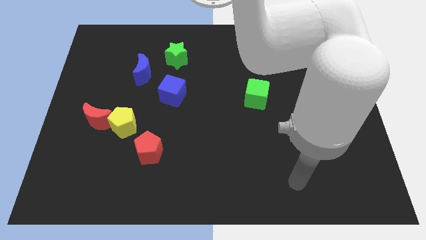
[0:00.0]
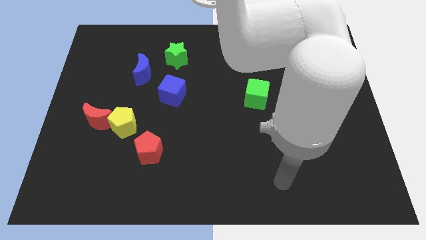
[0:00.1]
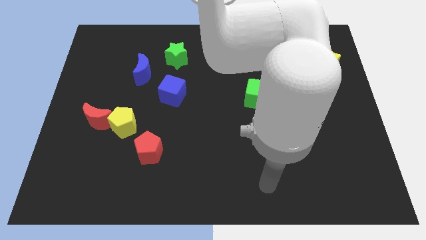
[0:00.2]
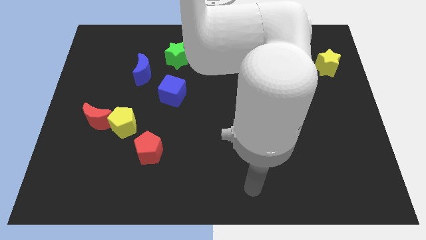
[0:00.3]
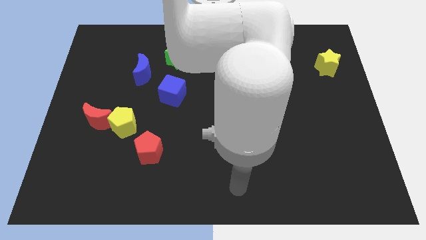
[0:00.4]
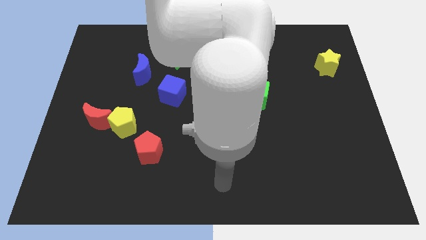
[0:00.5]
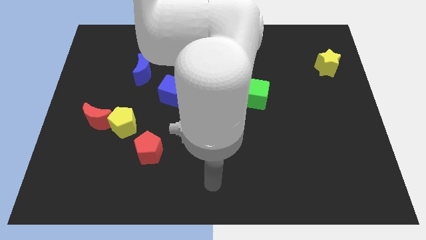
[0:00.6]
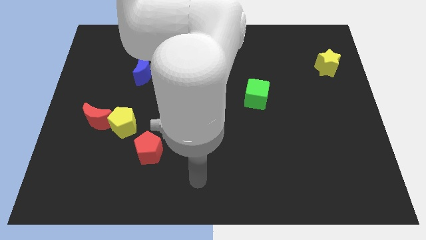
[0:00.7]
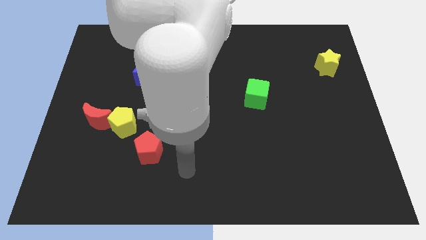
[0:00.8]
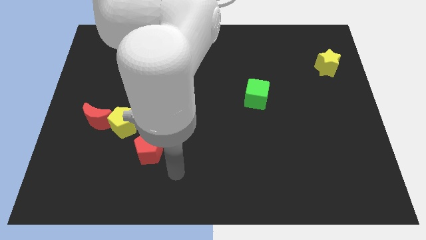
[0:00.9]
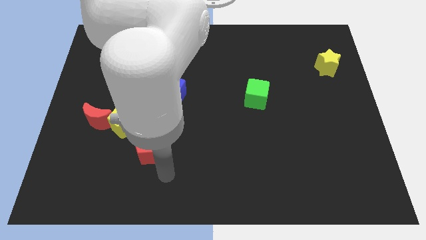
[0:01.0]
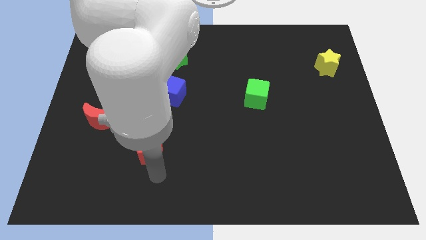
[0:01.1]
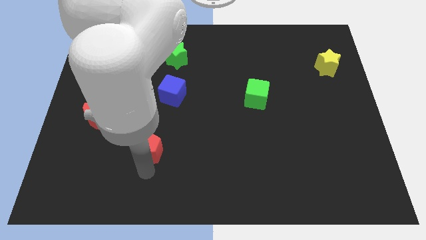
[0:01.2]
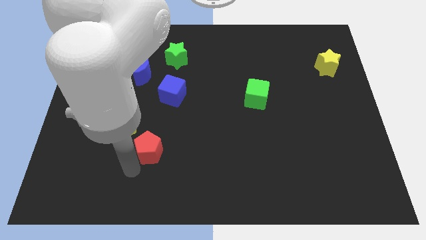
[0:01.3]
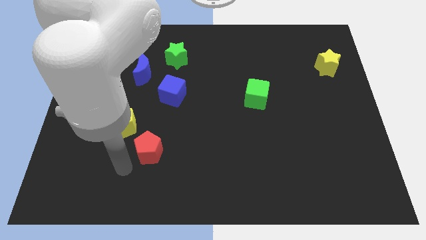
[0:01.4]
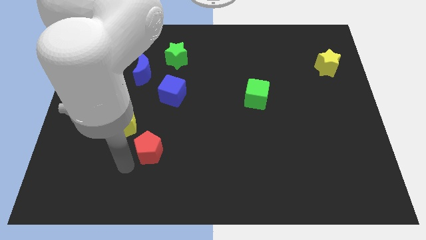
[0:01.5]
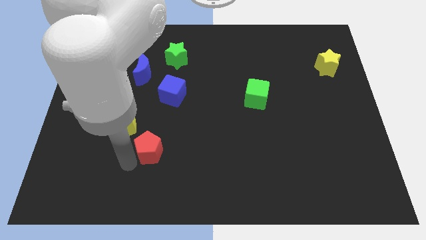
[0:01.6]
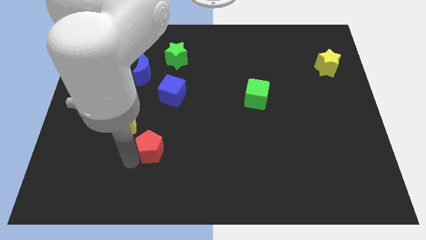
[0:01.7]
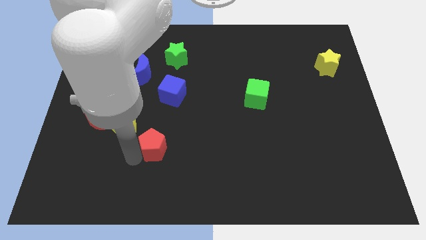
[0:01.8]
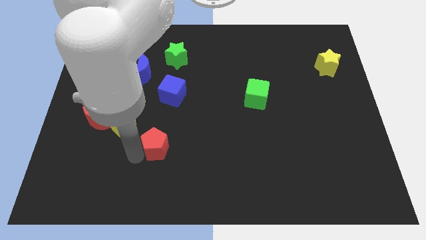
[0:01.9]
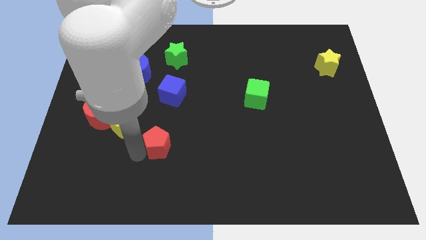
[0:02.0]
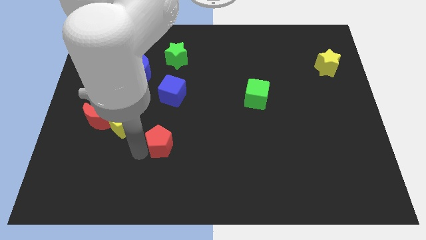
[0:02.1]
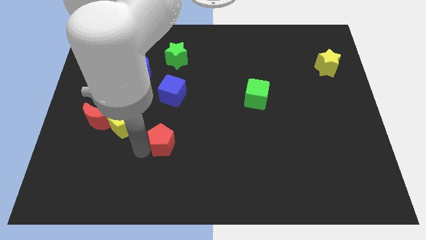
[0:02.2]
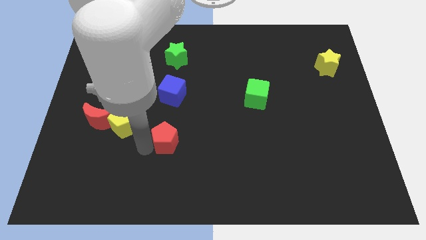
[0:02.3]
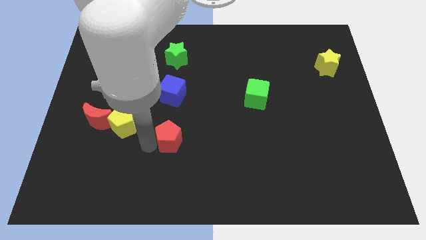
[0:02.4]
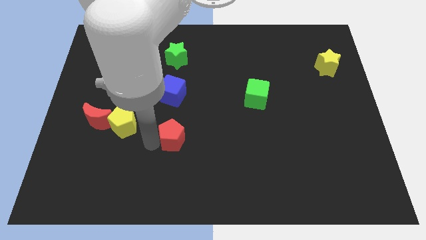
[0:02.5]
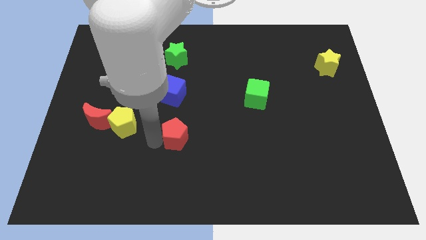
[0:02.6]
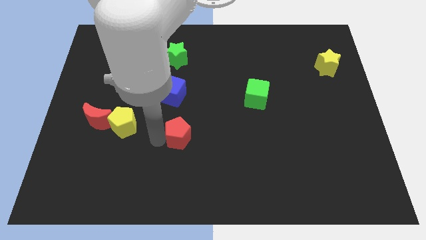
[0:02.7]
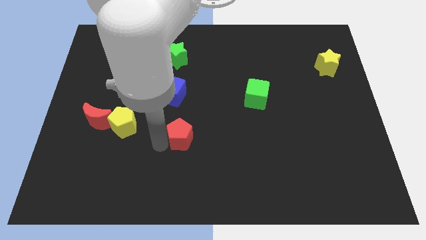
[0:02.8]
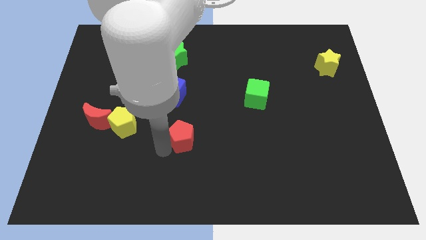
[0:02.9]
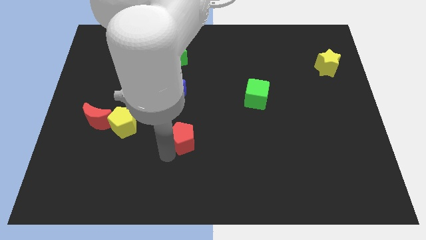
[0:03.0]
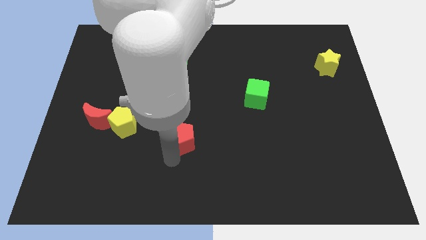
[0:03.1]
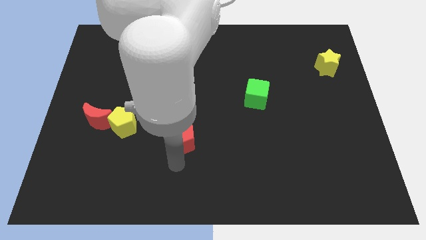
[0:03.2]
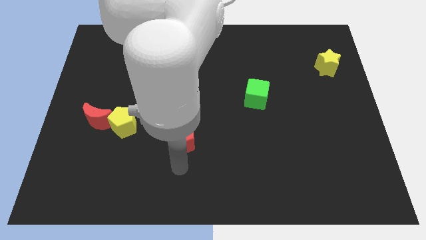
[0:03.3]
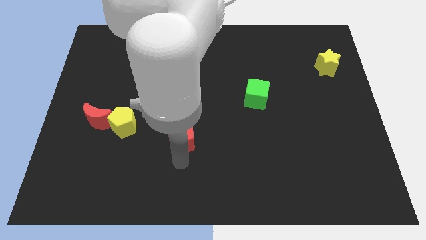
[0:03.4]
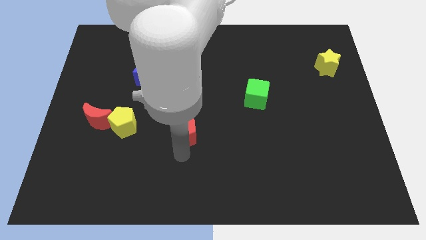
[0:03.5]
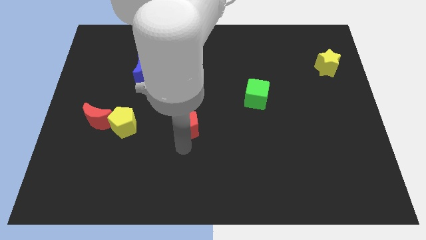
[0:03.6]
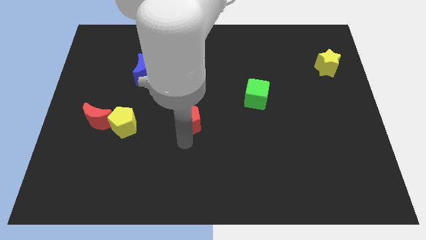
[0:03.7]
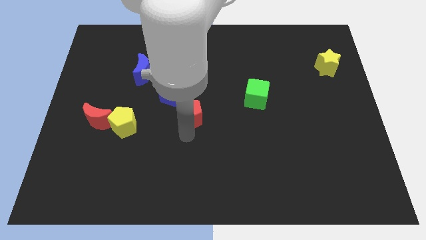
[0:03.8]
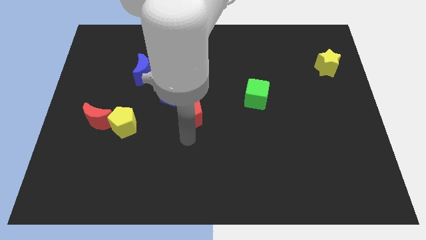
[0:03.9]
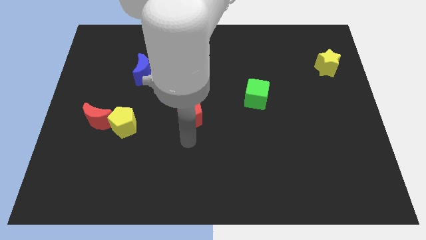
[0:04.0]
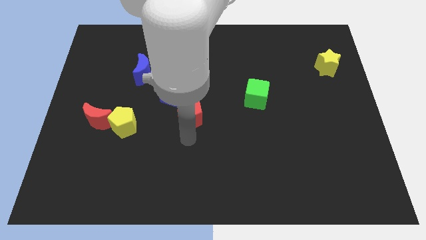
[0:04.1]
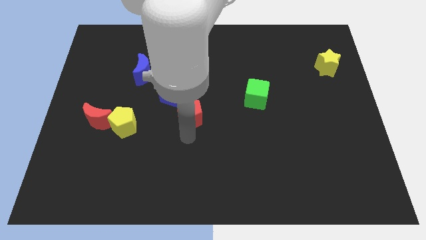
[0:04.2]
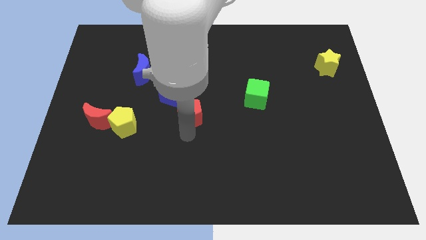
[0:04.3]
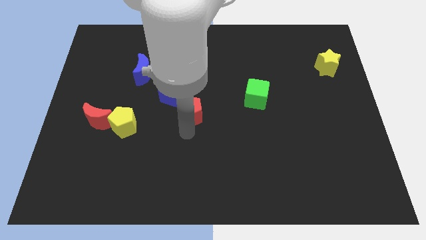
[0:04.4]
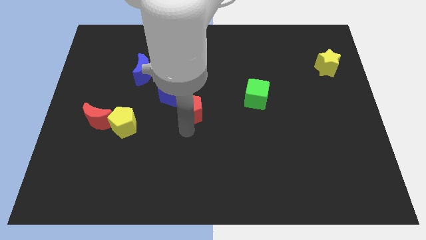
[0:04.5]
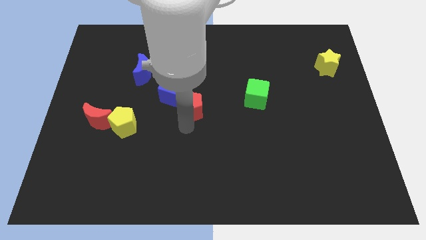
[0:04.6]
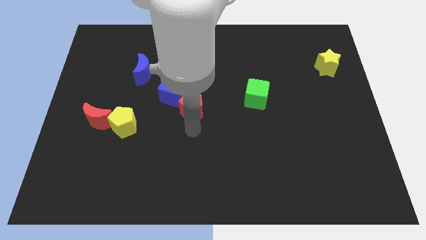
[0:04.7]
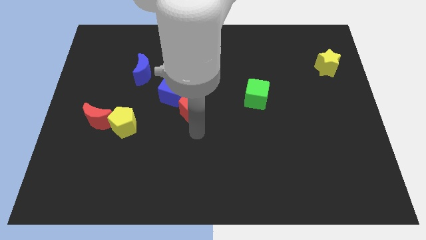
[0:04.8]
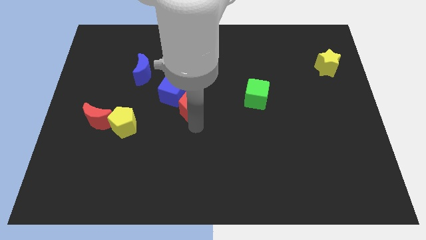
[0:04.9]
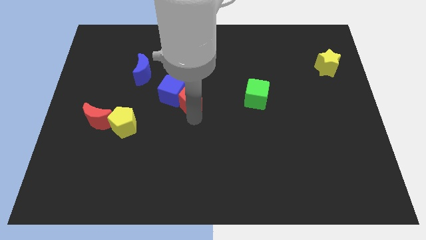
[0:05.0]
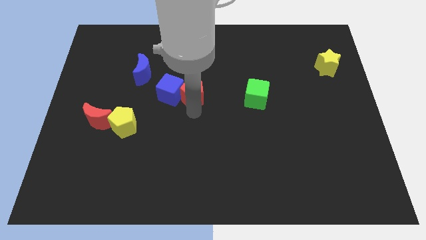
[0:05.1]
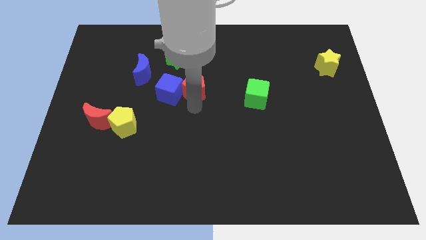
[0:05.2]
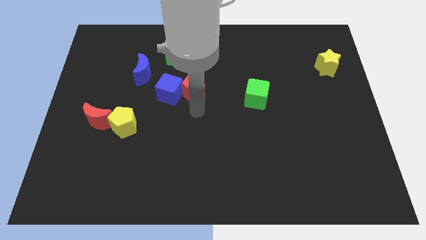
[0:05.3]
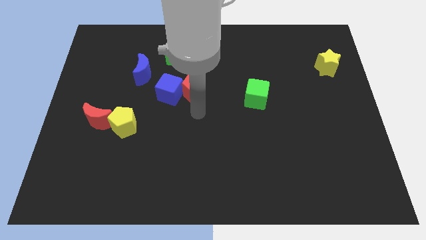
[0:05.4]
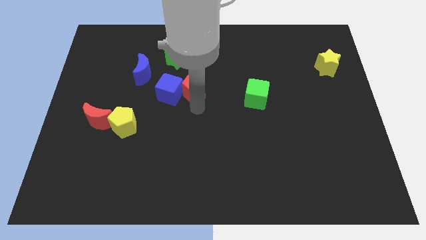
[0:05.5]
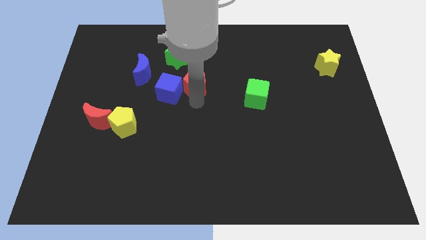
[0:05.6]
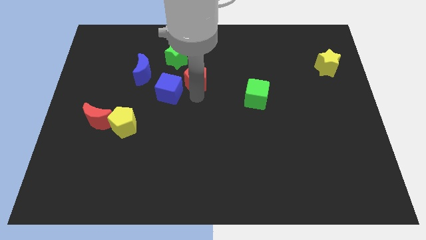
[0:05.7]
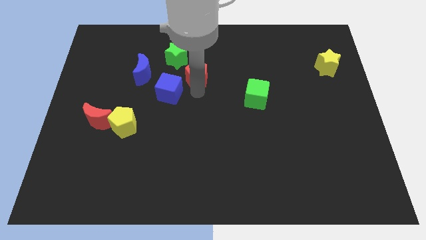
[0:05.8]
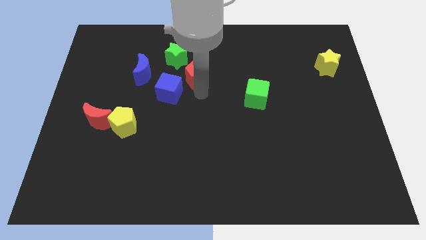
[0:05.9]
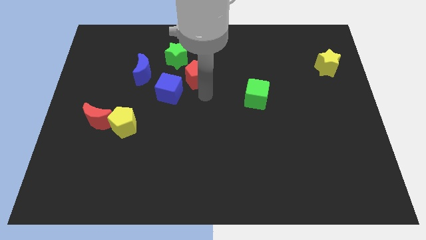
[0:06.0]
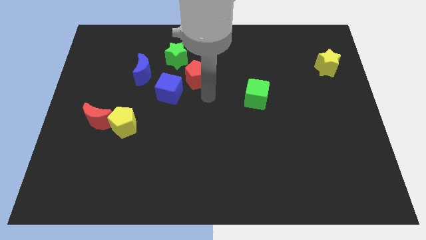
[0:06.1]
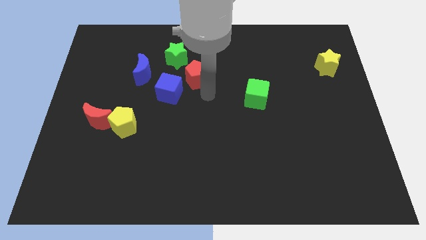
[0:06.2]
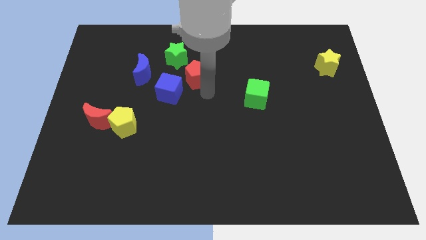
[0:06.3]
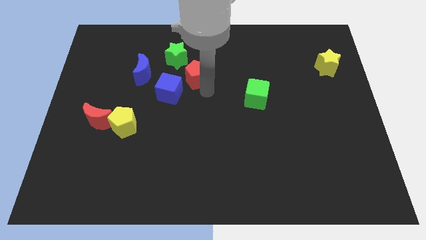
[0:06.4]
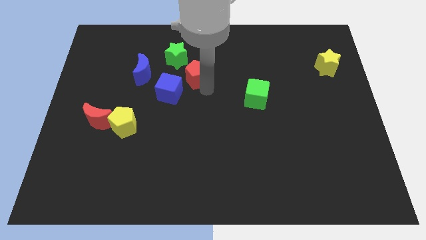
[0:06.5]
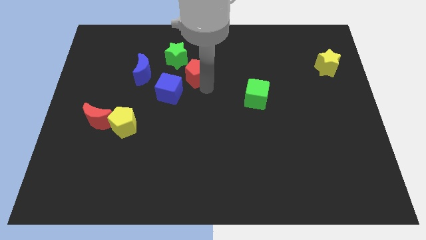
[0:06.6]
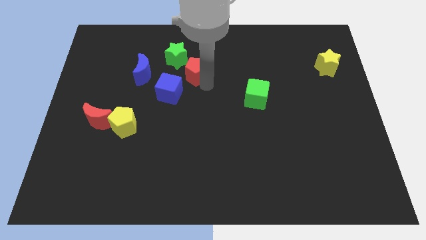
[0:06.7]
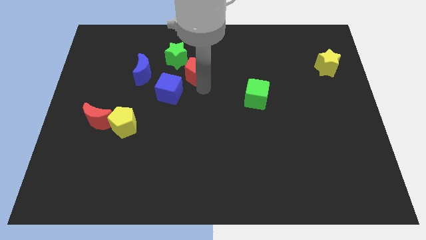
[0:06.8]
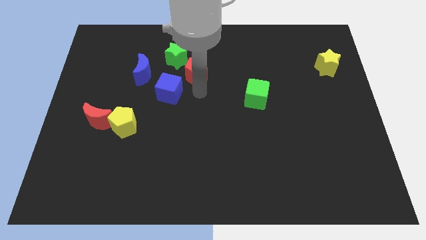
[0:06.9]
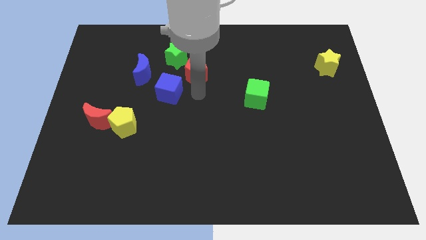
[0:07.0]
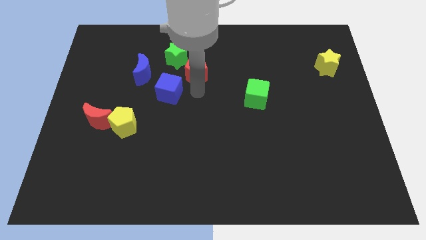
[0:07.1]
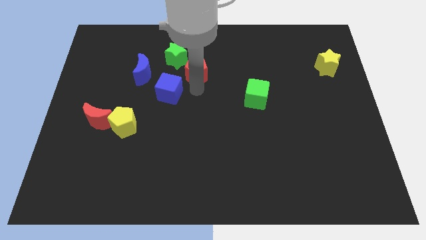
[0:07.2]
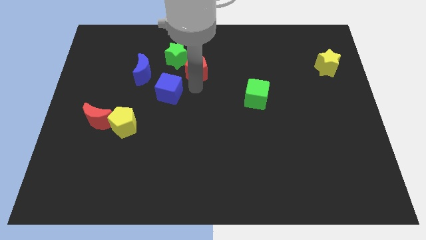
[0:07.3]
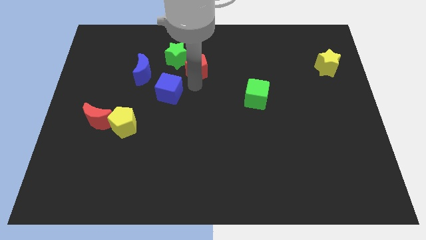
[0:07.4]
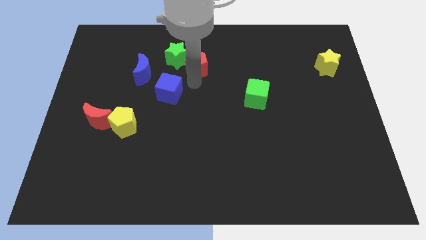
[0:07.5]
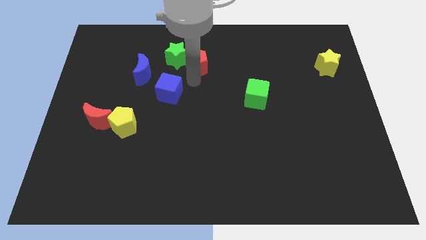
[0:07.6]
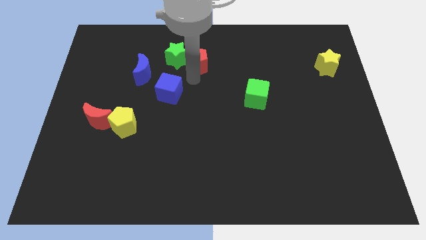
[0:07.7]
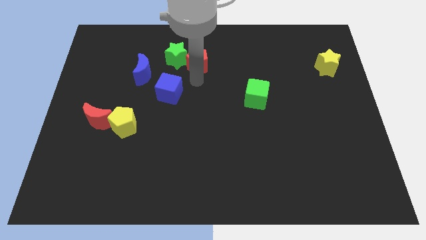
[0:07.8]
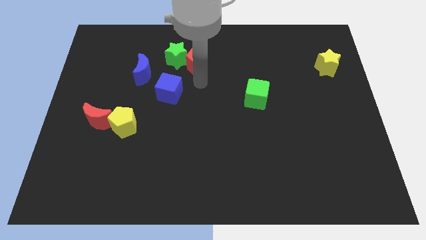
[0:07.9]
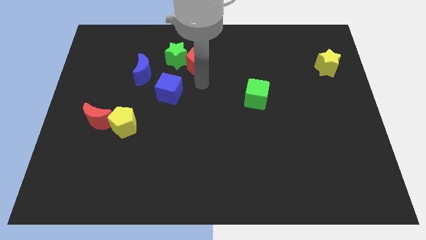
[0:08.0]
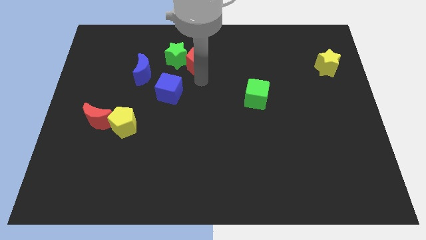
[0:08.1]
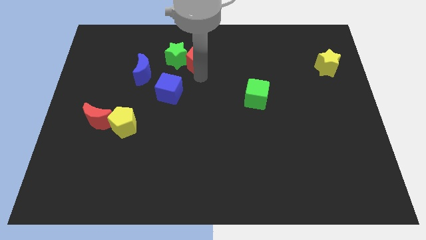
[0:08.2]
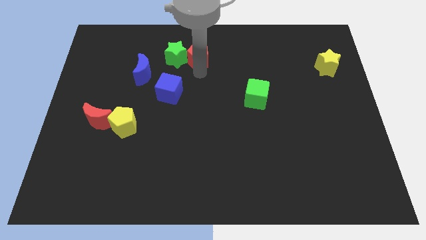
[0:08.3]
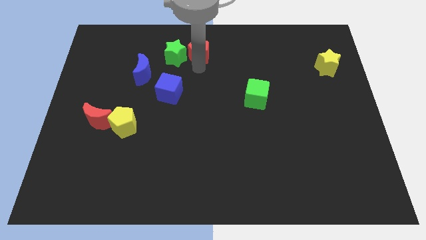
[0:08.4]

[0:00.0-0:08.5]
put the red pentagon to the top side
